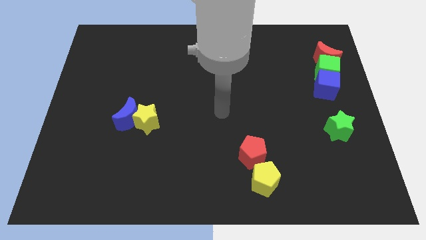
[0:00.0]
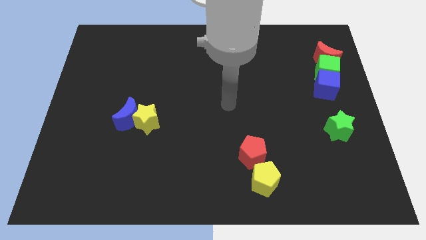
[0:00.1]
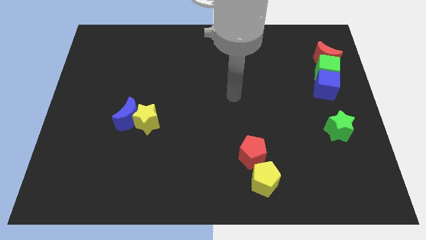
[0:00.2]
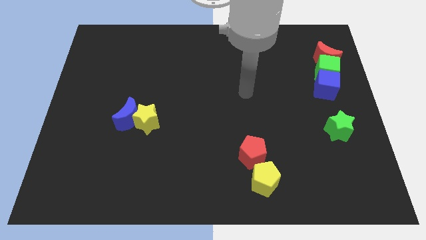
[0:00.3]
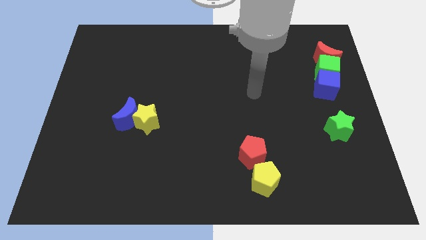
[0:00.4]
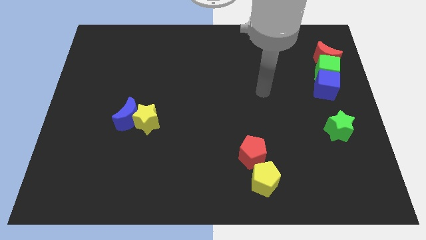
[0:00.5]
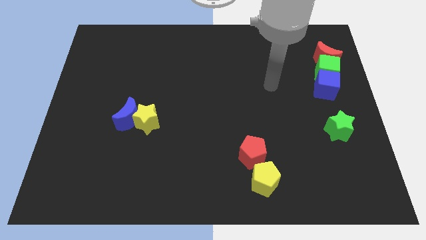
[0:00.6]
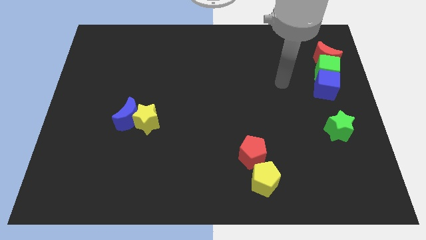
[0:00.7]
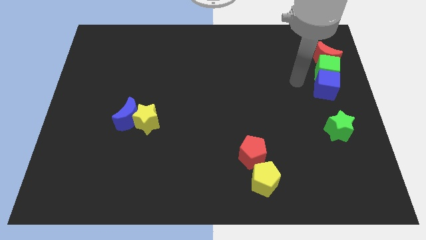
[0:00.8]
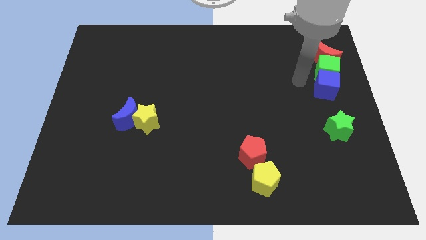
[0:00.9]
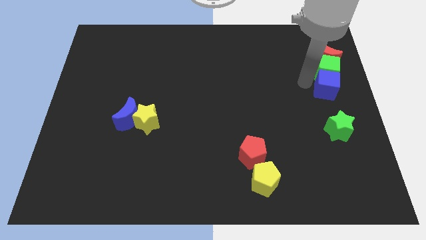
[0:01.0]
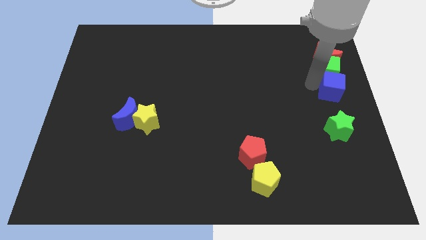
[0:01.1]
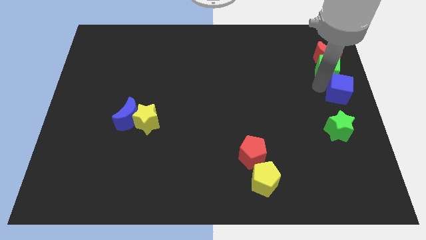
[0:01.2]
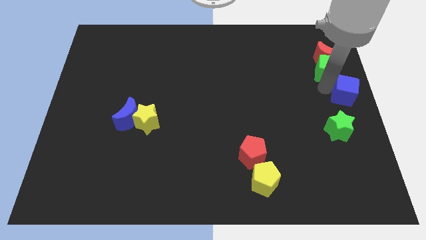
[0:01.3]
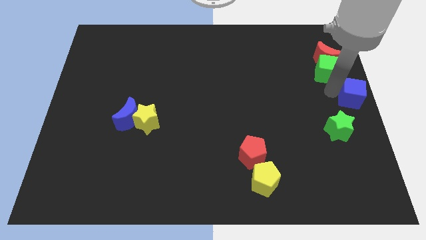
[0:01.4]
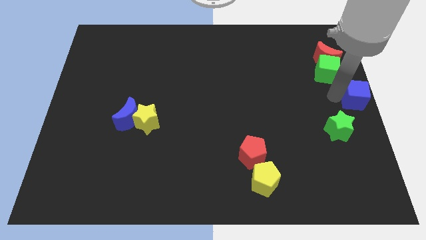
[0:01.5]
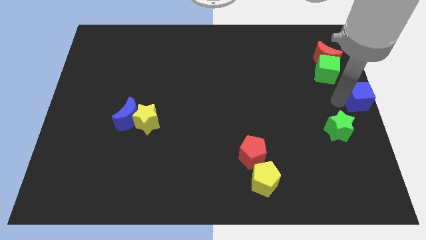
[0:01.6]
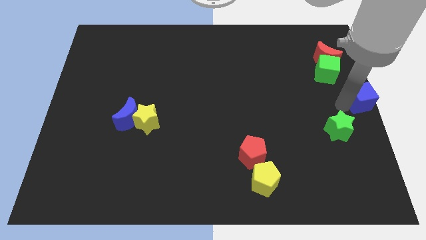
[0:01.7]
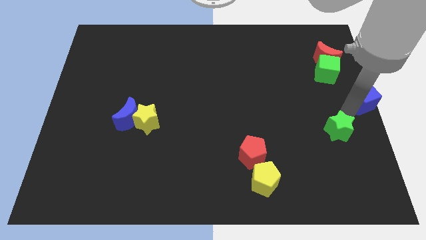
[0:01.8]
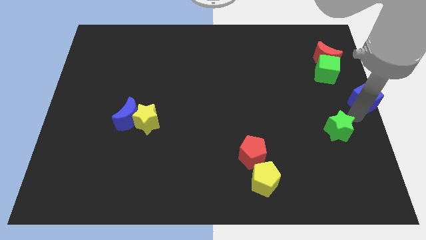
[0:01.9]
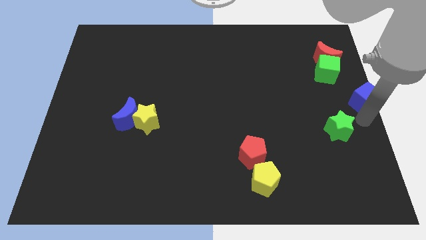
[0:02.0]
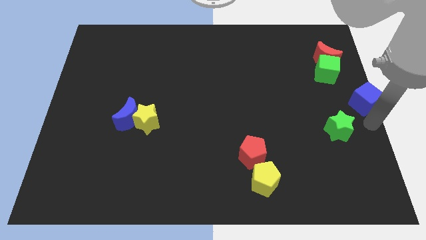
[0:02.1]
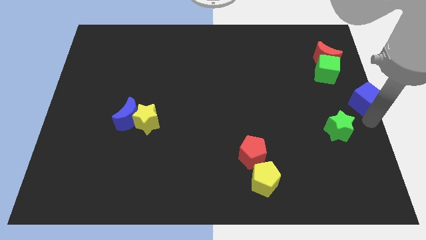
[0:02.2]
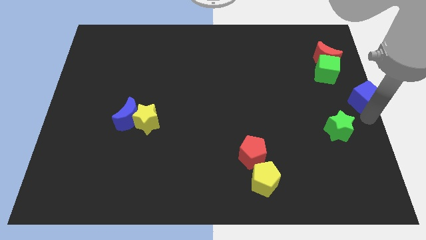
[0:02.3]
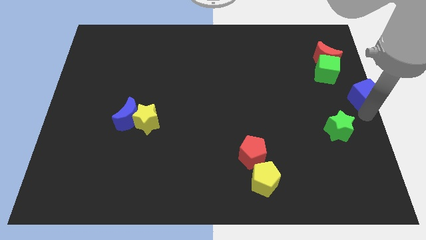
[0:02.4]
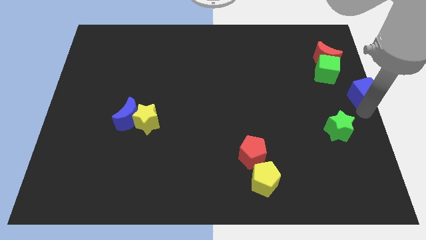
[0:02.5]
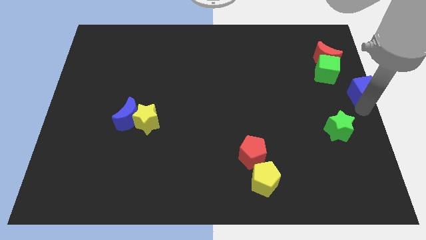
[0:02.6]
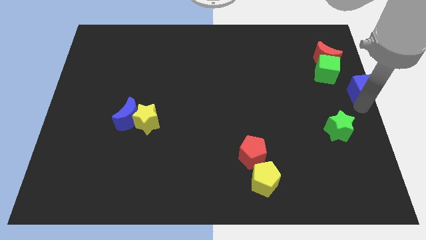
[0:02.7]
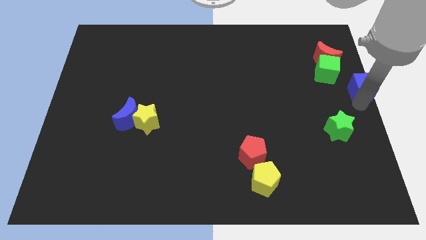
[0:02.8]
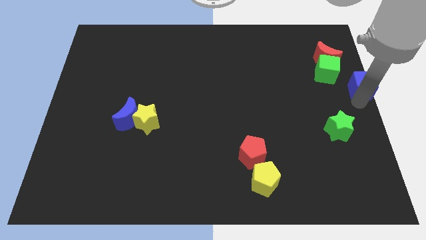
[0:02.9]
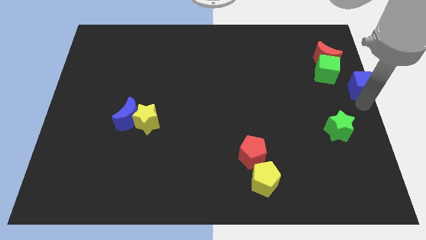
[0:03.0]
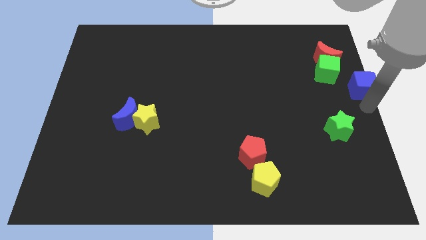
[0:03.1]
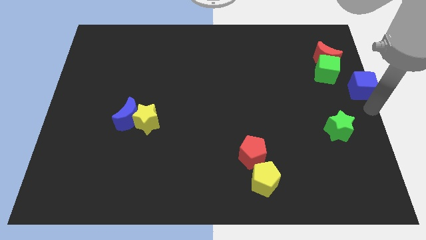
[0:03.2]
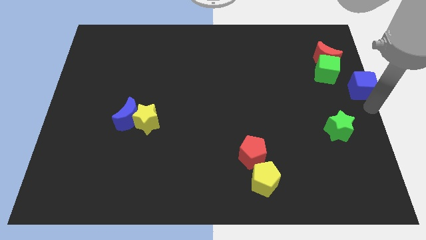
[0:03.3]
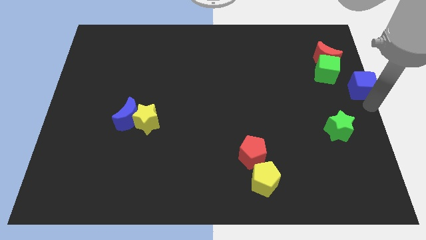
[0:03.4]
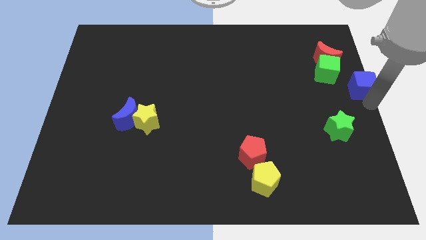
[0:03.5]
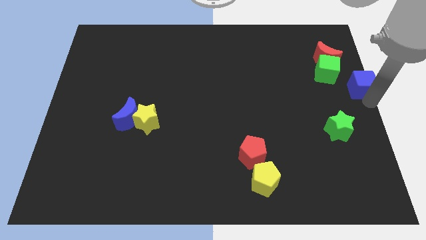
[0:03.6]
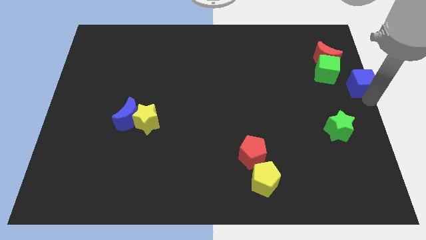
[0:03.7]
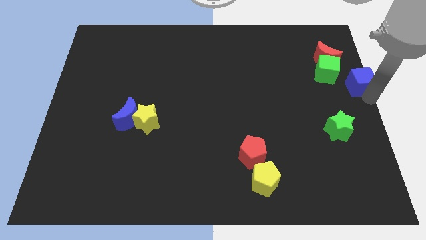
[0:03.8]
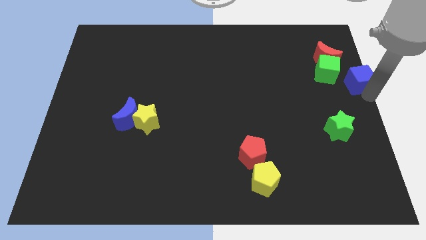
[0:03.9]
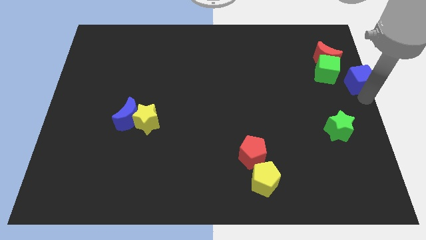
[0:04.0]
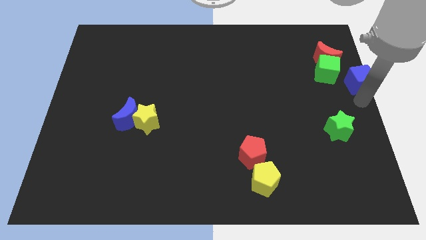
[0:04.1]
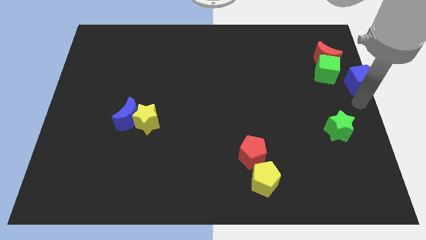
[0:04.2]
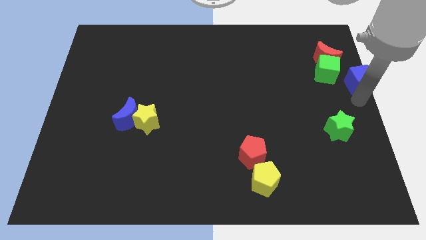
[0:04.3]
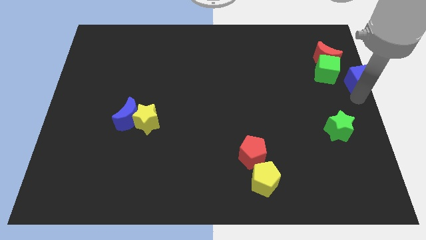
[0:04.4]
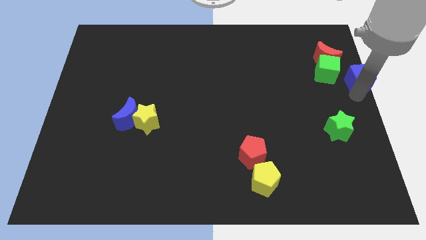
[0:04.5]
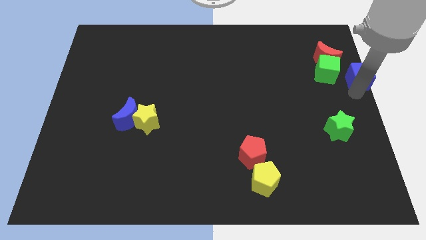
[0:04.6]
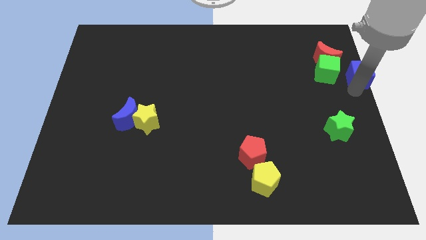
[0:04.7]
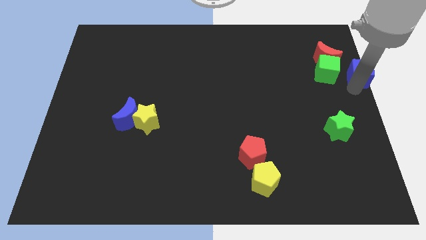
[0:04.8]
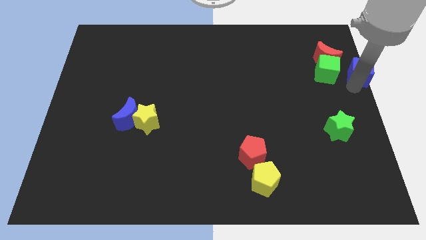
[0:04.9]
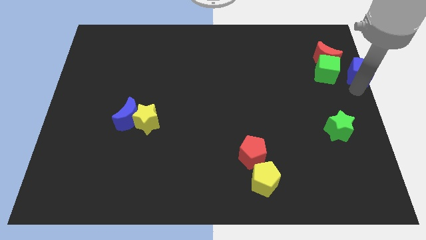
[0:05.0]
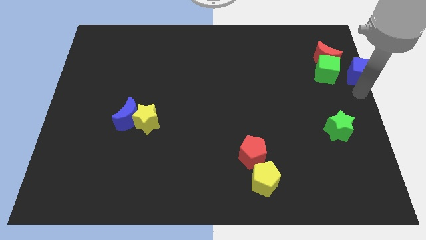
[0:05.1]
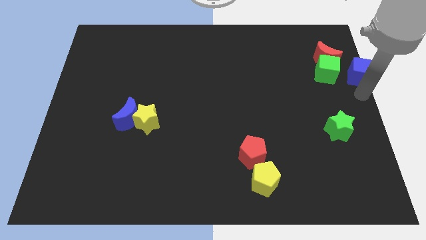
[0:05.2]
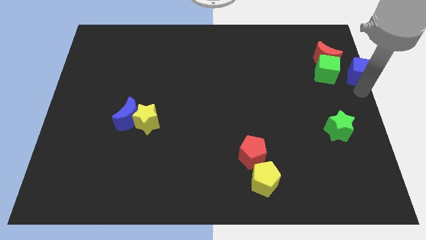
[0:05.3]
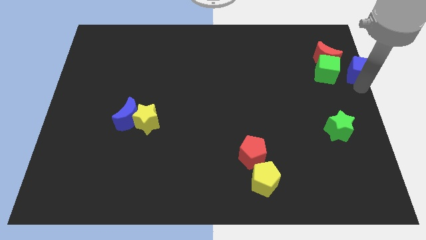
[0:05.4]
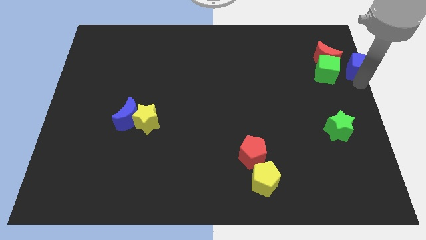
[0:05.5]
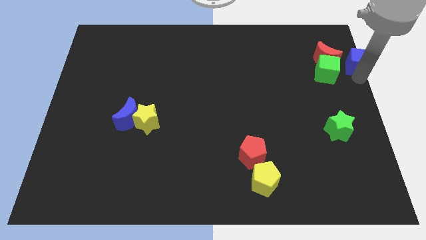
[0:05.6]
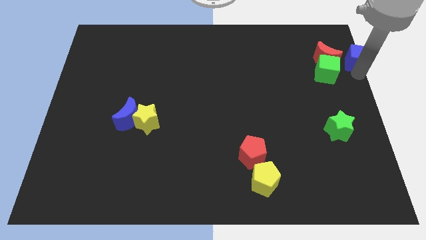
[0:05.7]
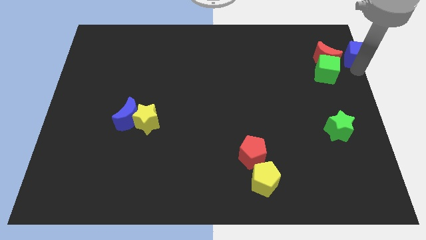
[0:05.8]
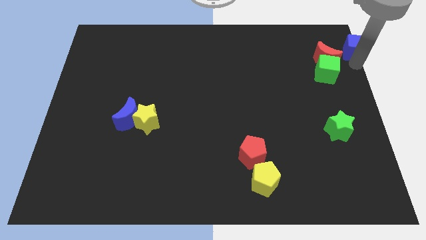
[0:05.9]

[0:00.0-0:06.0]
push the blue cube to the upper right corner
